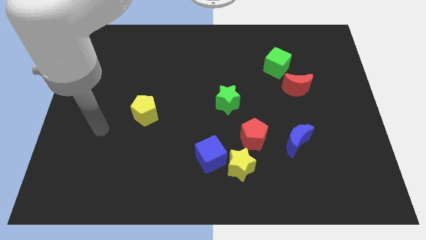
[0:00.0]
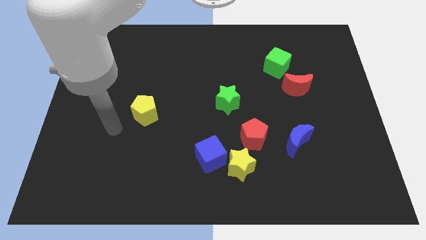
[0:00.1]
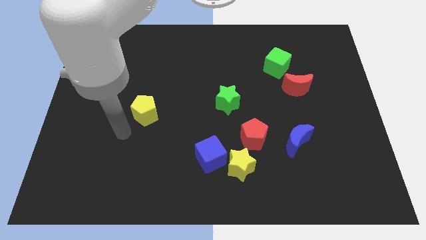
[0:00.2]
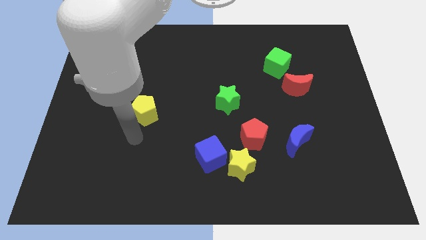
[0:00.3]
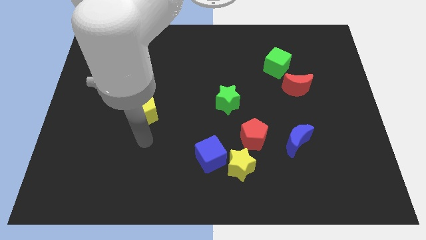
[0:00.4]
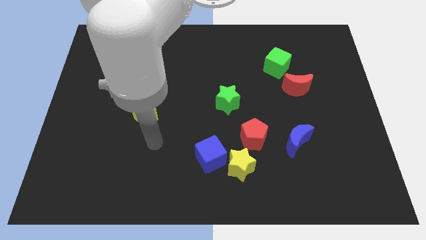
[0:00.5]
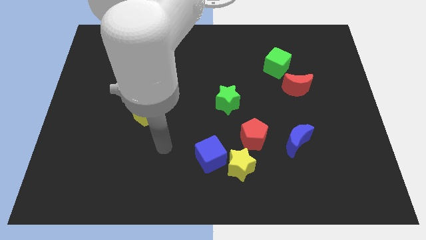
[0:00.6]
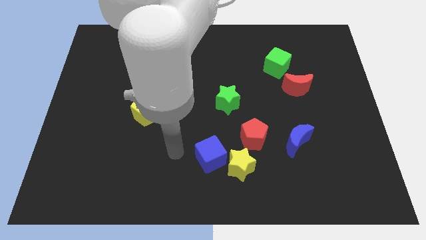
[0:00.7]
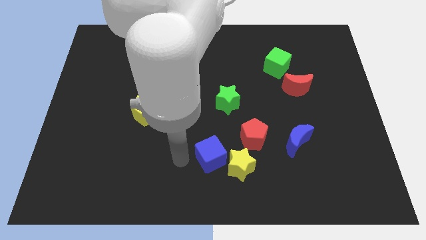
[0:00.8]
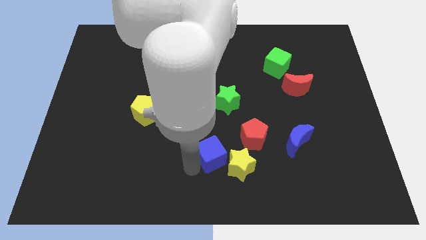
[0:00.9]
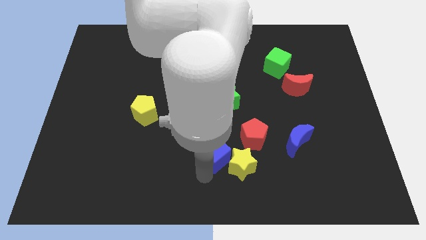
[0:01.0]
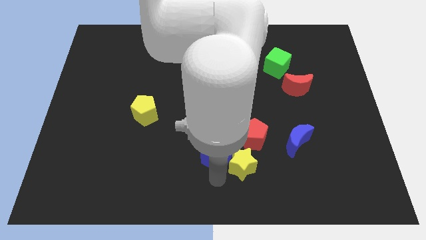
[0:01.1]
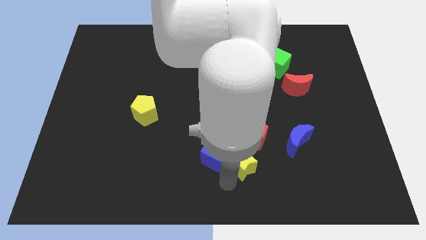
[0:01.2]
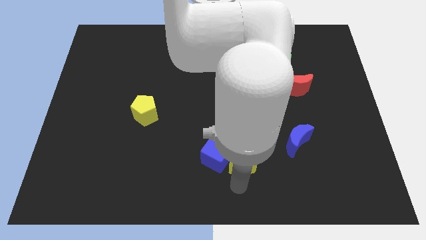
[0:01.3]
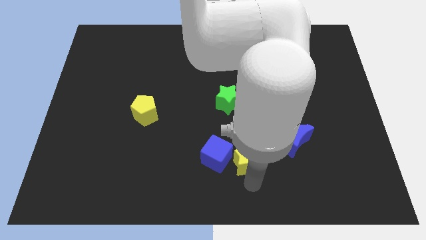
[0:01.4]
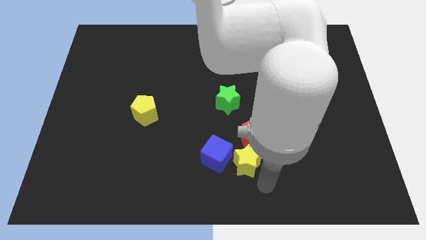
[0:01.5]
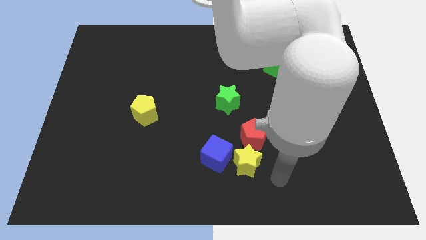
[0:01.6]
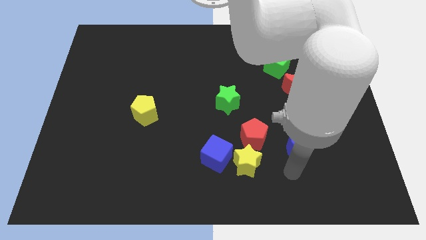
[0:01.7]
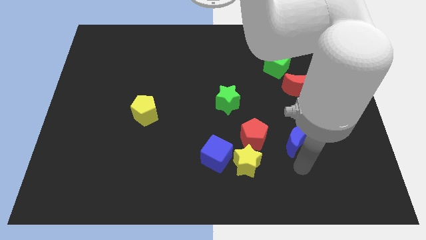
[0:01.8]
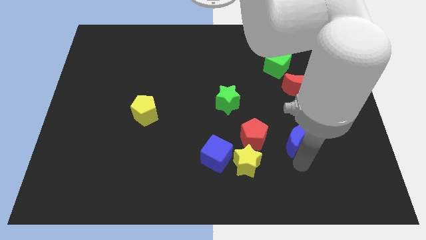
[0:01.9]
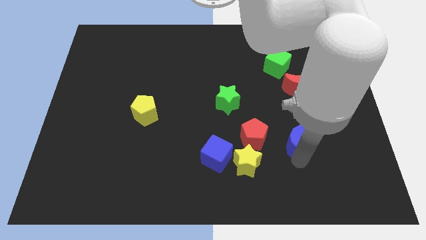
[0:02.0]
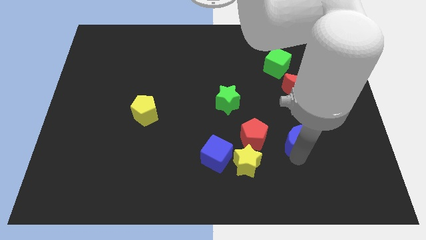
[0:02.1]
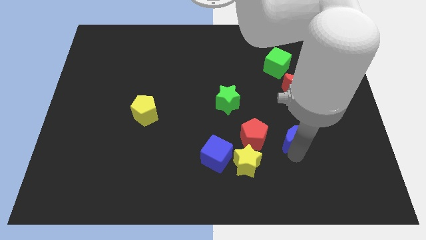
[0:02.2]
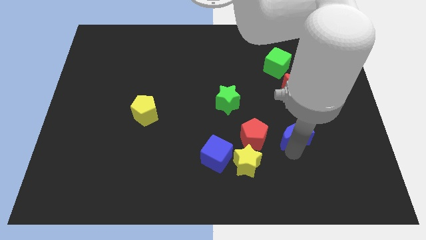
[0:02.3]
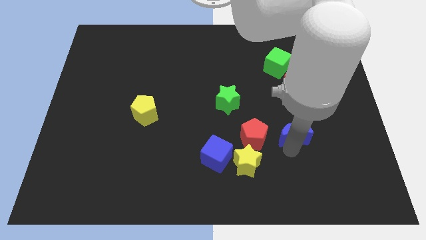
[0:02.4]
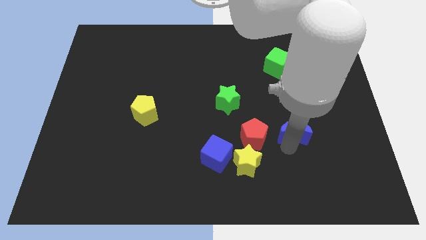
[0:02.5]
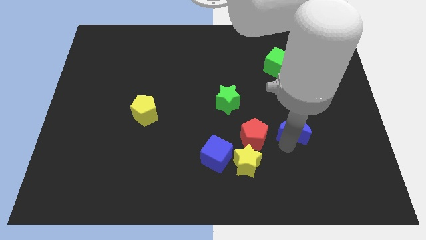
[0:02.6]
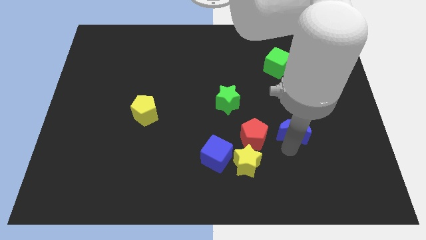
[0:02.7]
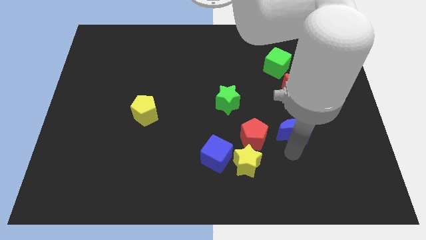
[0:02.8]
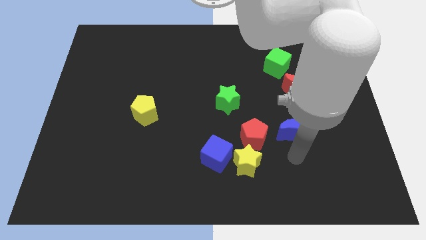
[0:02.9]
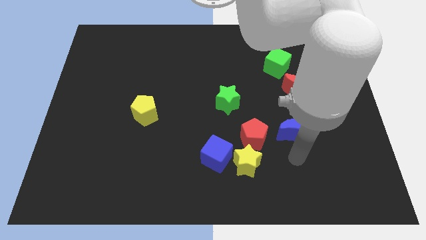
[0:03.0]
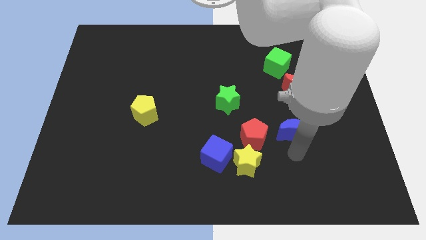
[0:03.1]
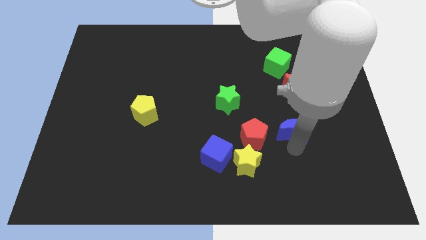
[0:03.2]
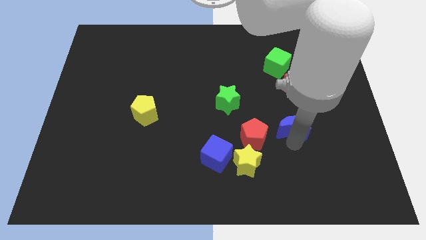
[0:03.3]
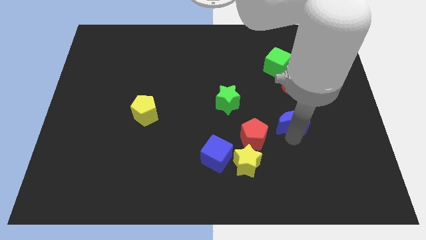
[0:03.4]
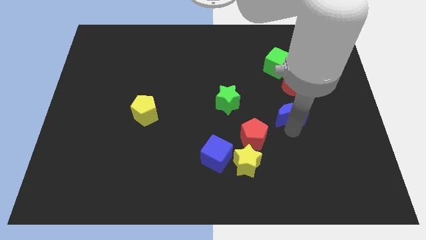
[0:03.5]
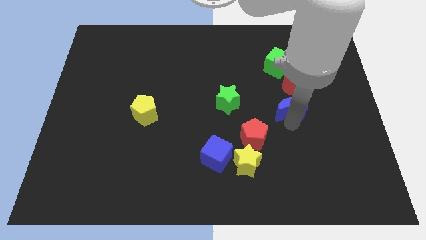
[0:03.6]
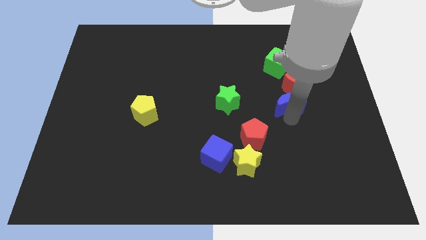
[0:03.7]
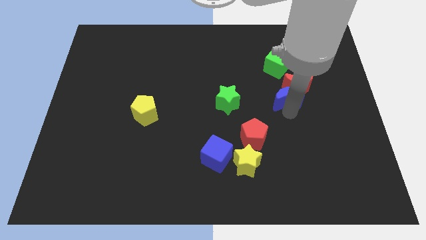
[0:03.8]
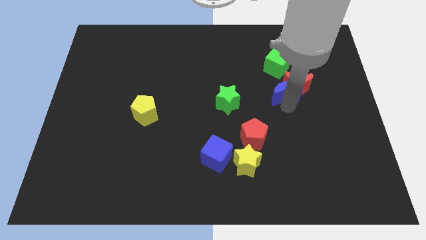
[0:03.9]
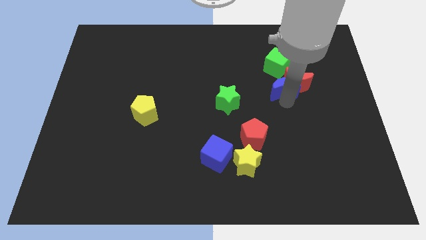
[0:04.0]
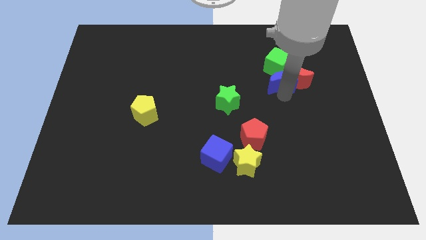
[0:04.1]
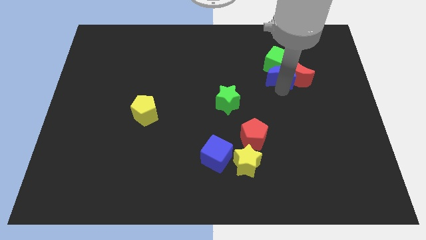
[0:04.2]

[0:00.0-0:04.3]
put the blue moon towards the green cube

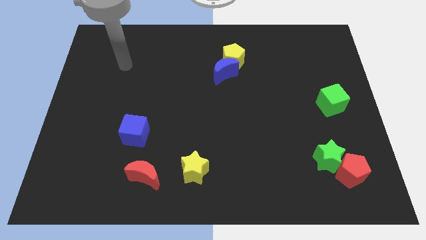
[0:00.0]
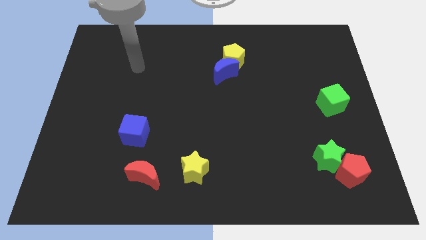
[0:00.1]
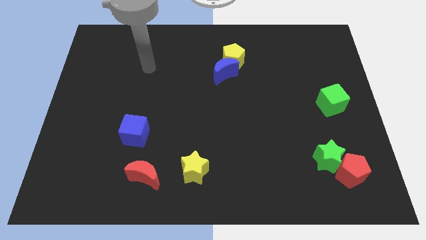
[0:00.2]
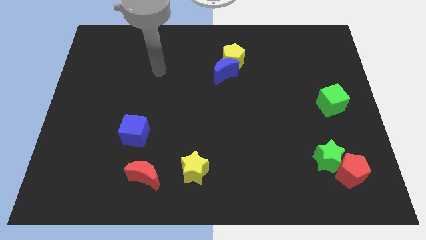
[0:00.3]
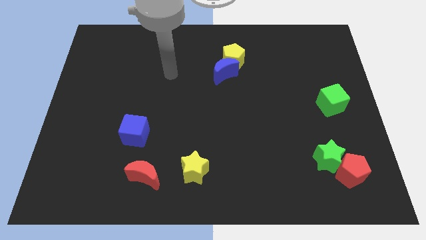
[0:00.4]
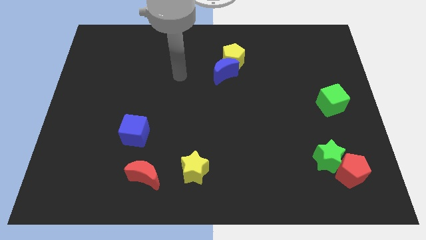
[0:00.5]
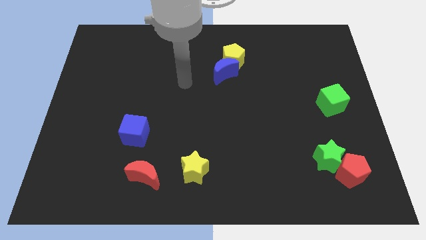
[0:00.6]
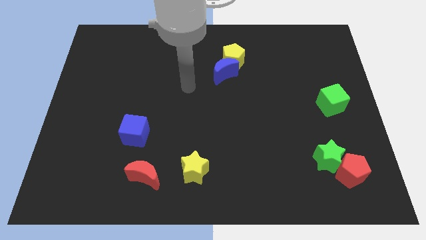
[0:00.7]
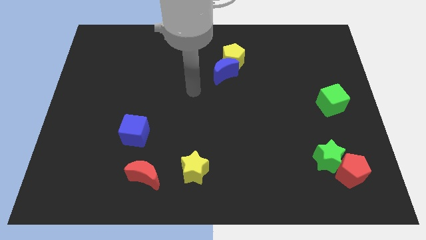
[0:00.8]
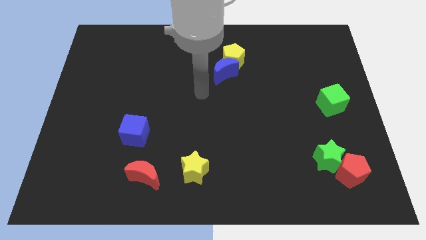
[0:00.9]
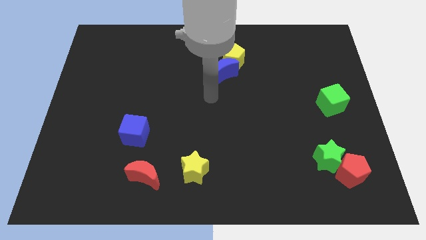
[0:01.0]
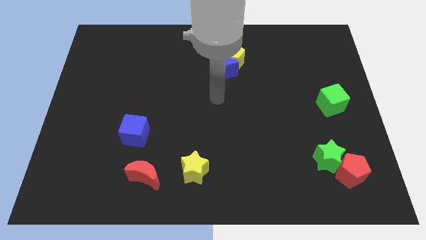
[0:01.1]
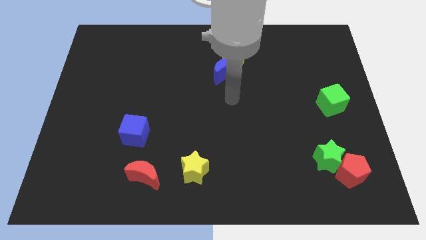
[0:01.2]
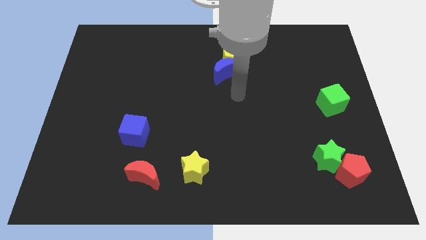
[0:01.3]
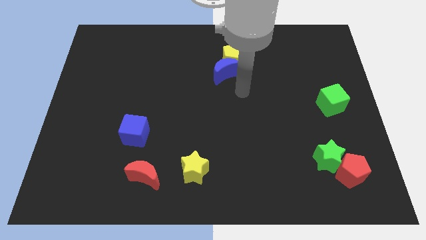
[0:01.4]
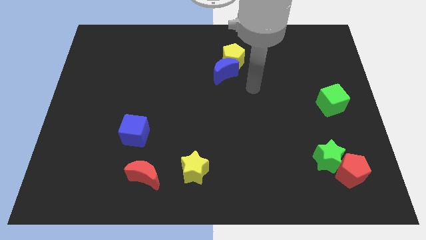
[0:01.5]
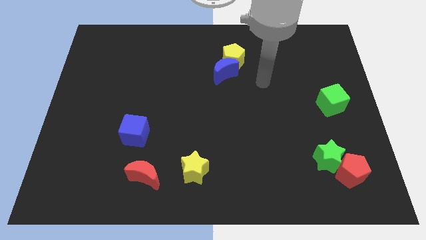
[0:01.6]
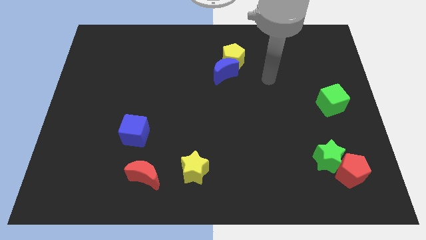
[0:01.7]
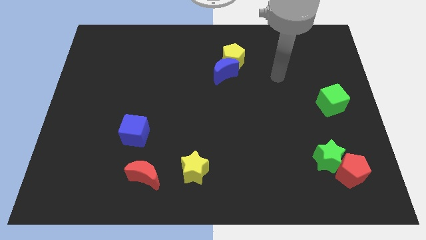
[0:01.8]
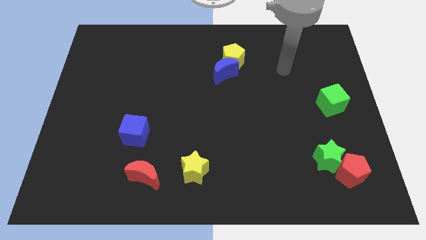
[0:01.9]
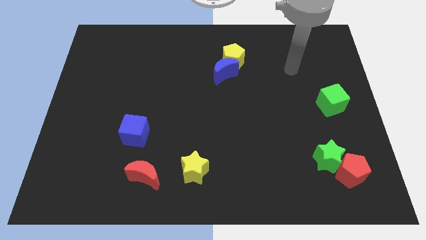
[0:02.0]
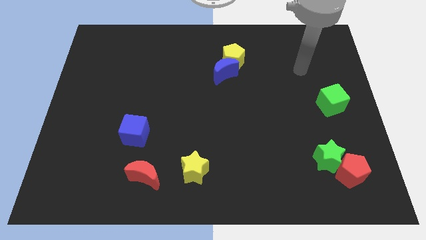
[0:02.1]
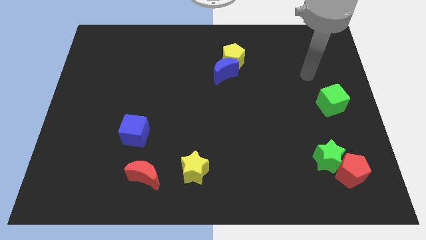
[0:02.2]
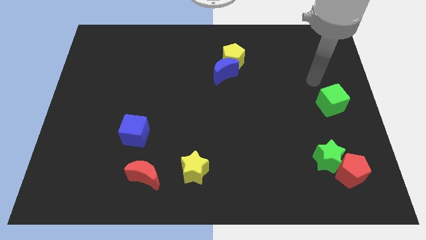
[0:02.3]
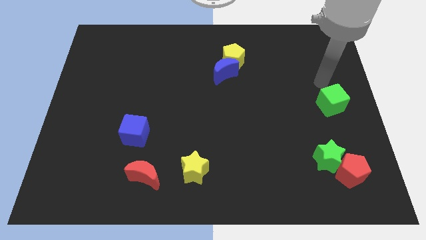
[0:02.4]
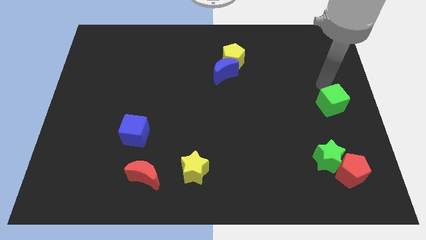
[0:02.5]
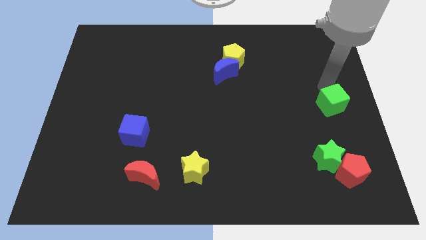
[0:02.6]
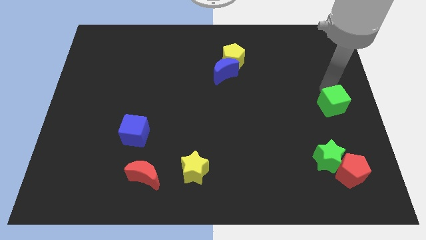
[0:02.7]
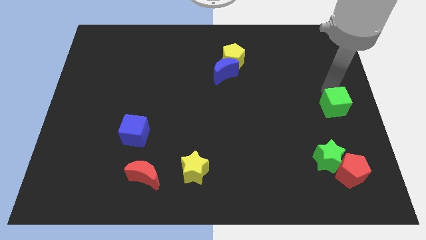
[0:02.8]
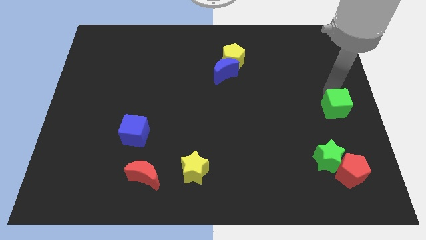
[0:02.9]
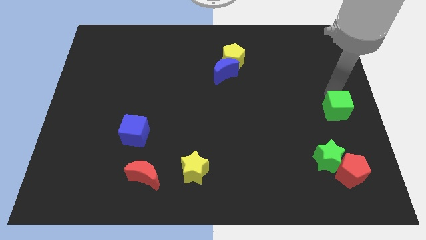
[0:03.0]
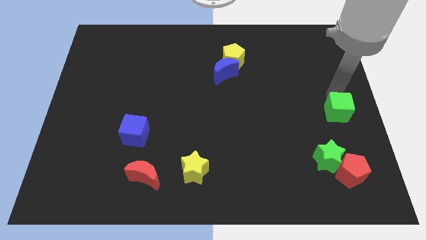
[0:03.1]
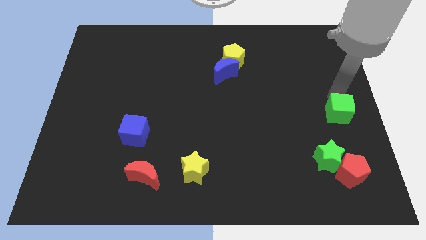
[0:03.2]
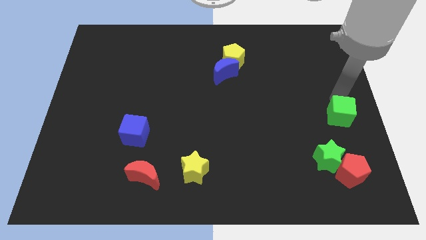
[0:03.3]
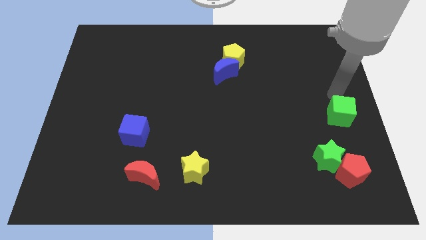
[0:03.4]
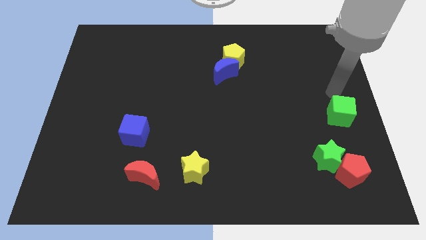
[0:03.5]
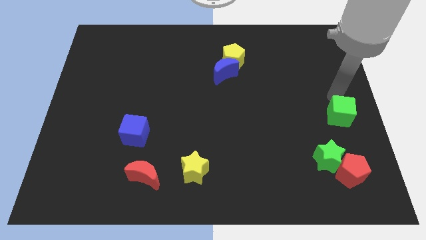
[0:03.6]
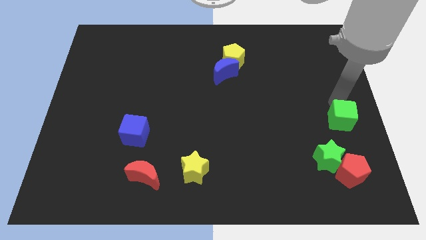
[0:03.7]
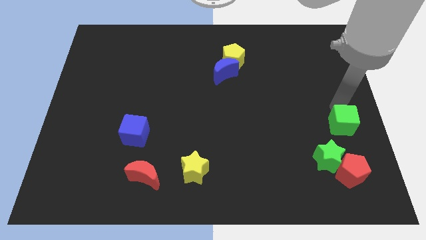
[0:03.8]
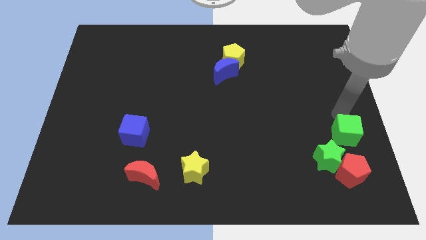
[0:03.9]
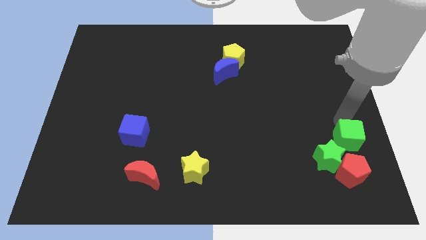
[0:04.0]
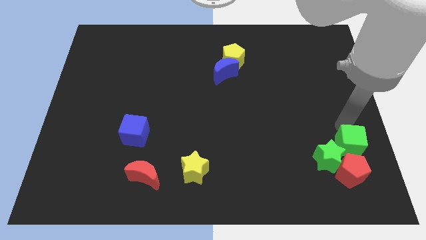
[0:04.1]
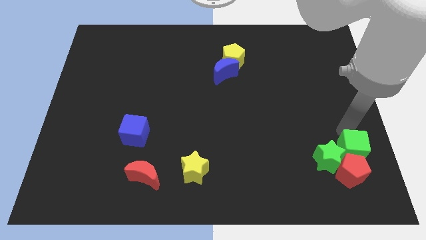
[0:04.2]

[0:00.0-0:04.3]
slide the green cube close to the red pentagon
